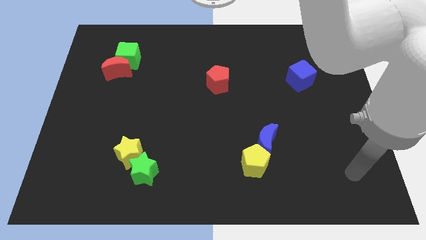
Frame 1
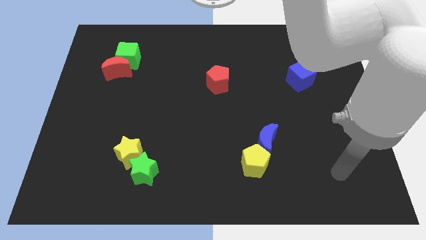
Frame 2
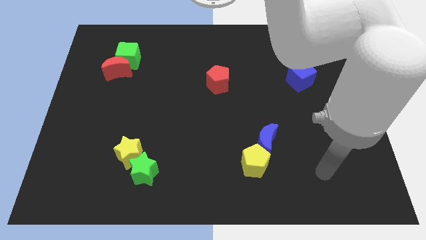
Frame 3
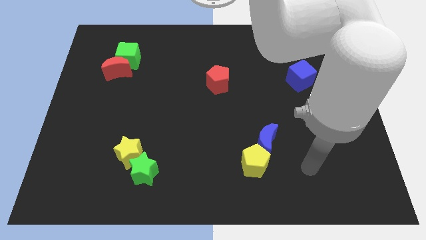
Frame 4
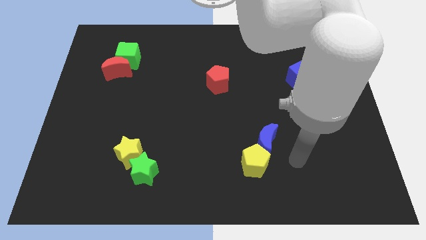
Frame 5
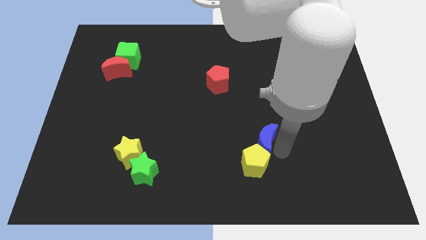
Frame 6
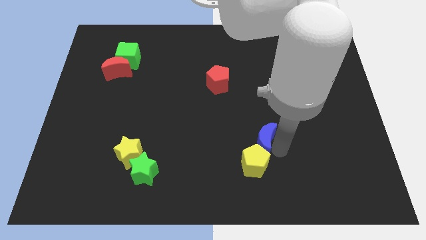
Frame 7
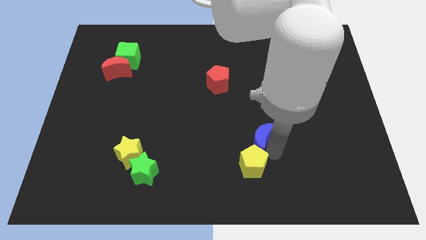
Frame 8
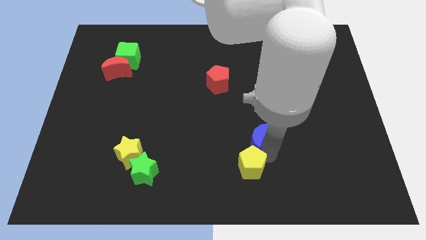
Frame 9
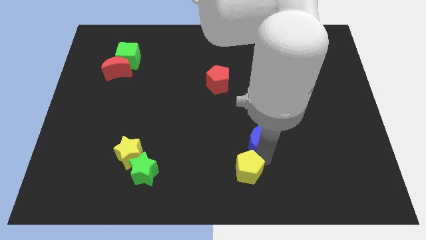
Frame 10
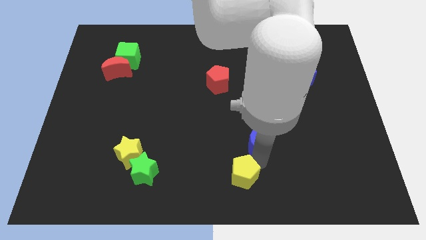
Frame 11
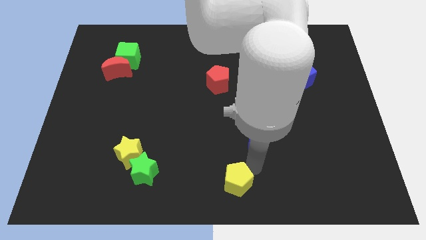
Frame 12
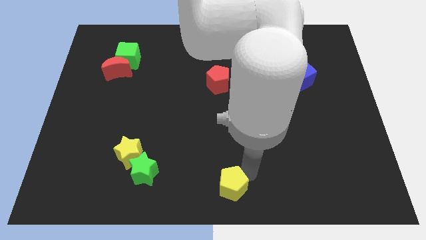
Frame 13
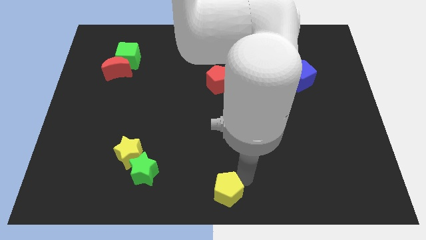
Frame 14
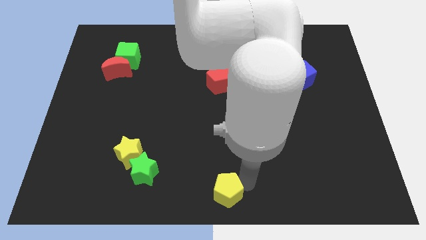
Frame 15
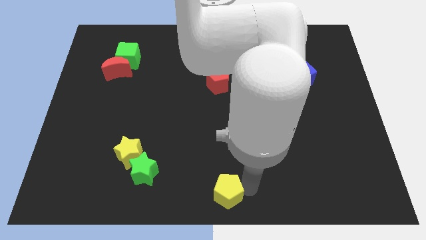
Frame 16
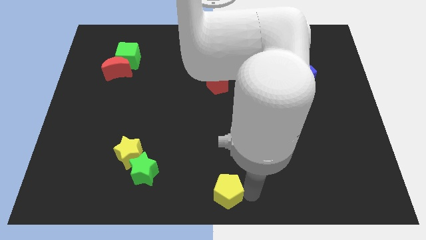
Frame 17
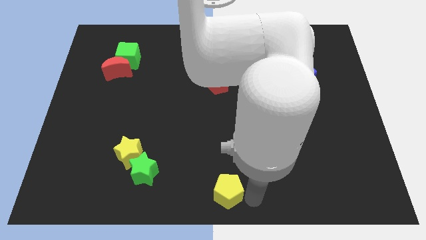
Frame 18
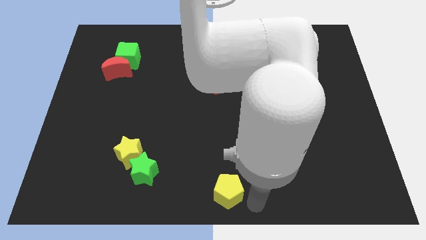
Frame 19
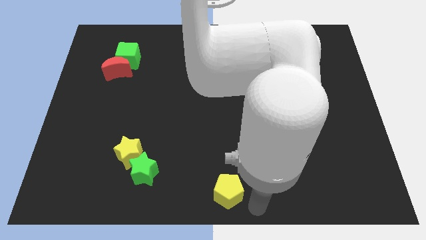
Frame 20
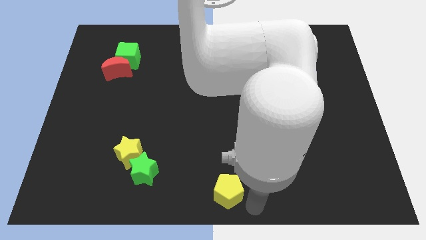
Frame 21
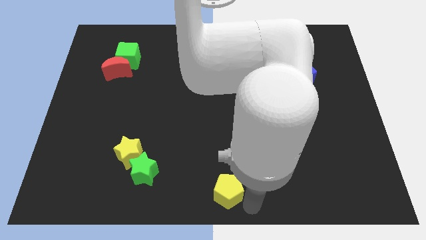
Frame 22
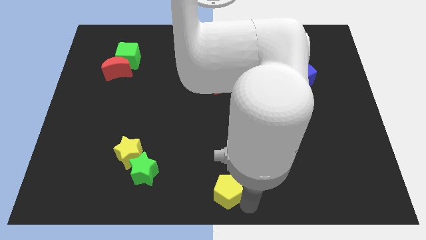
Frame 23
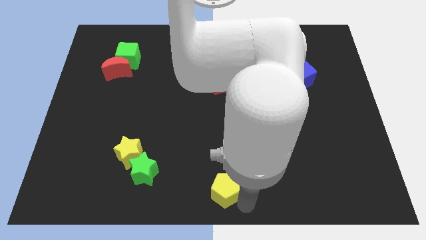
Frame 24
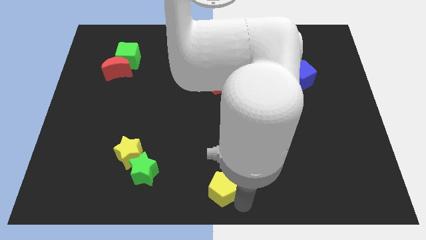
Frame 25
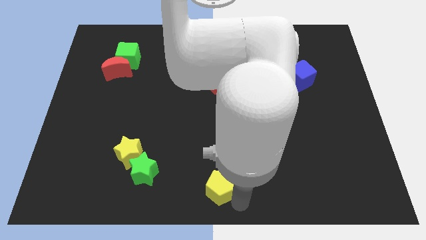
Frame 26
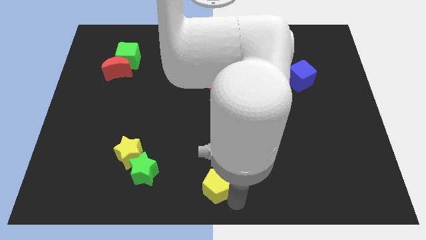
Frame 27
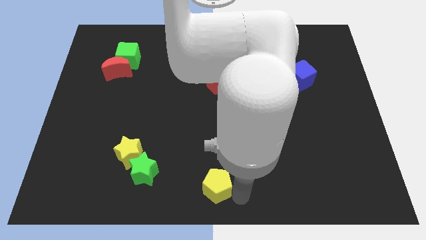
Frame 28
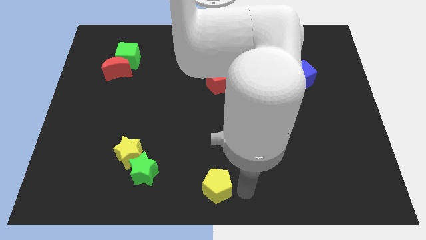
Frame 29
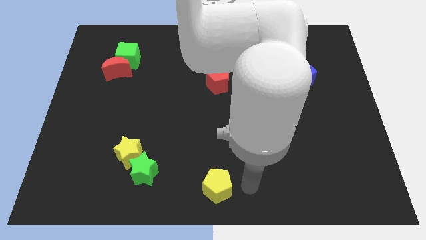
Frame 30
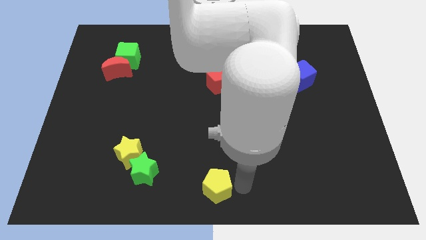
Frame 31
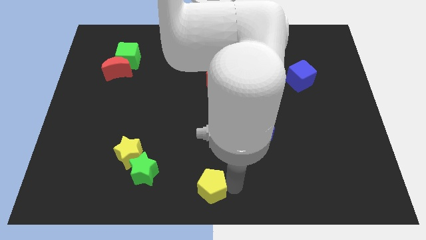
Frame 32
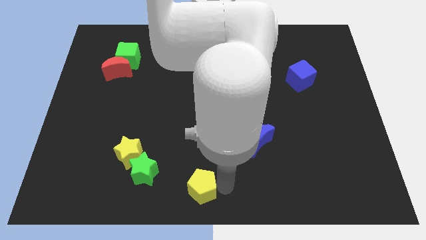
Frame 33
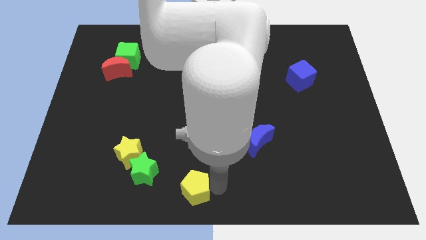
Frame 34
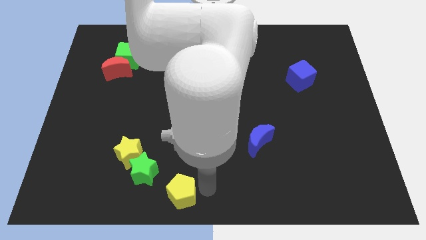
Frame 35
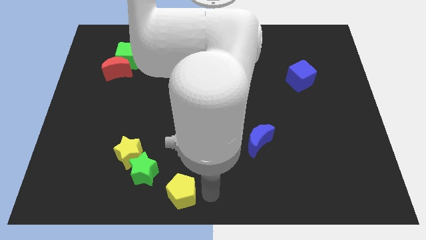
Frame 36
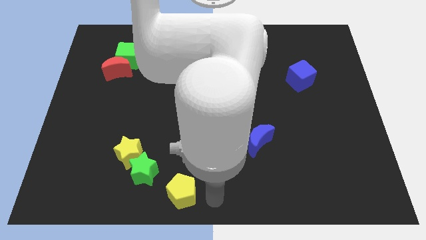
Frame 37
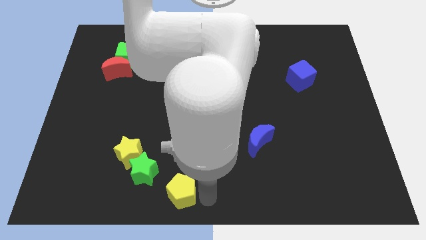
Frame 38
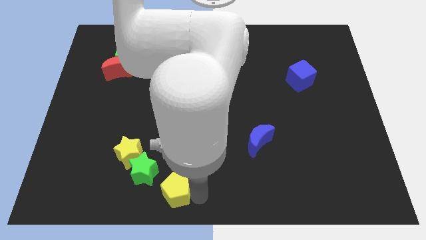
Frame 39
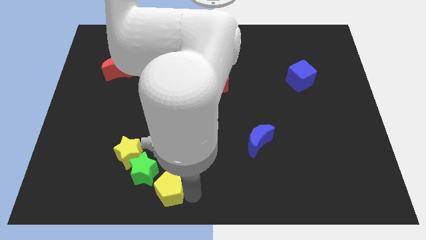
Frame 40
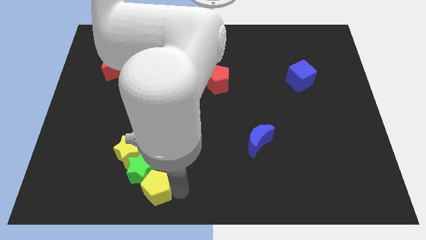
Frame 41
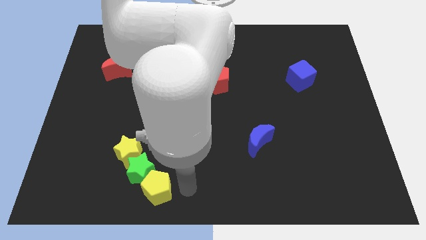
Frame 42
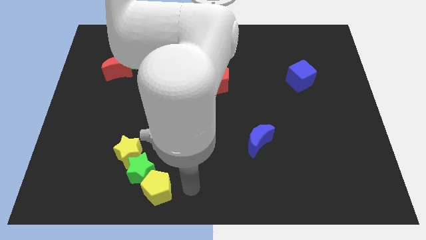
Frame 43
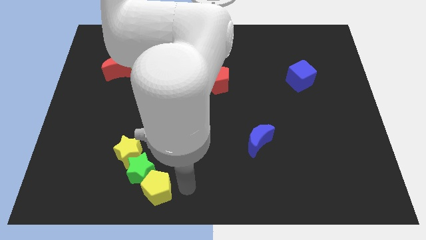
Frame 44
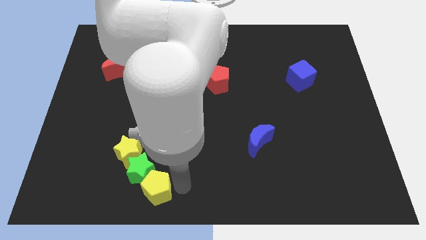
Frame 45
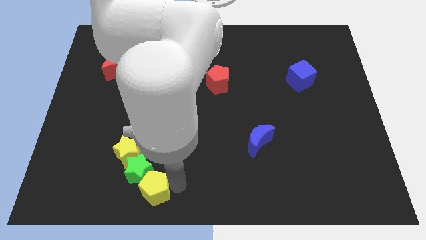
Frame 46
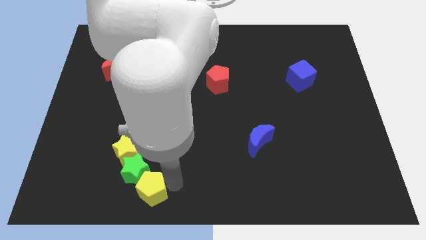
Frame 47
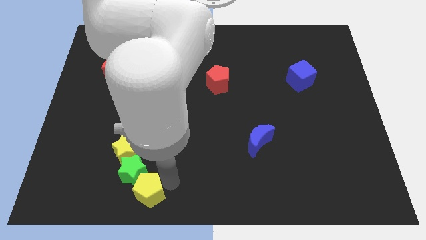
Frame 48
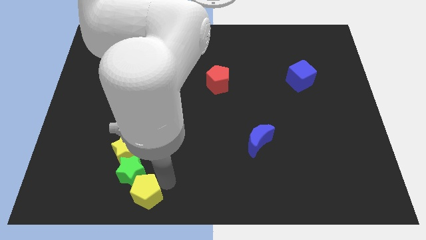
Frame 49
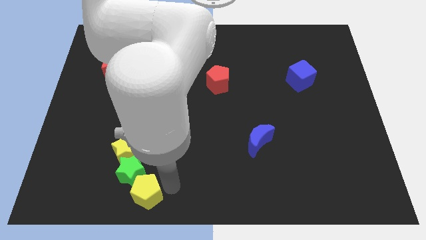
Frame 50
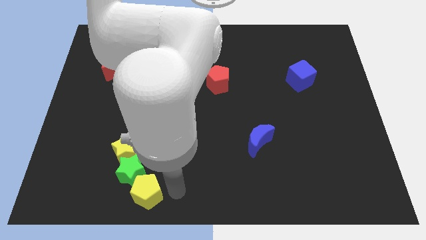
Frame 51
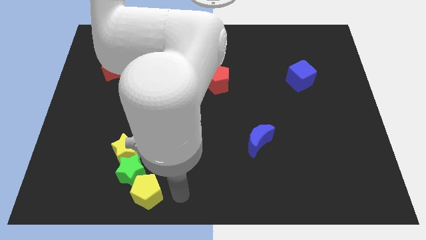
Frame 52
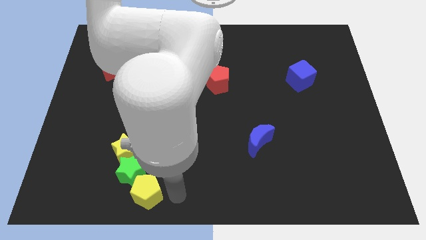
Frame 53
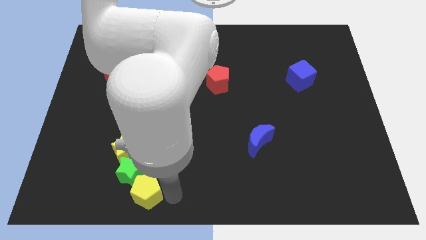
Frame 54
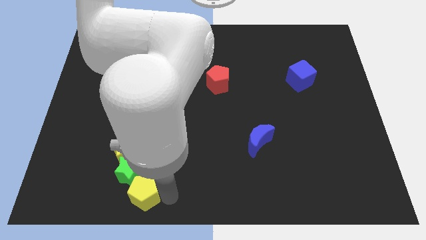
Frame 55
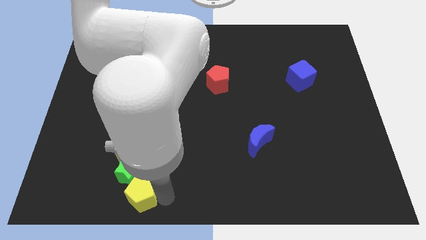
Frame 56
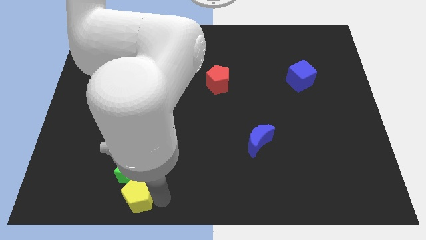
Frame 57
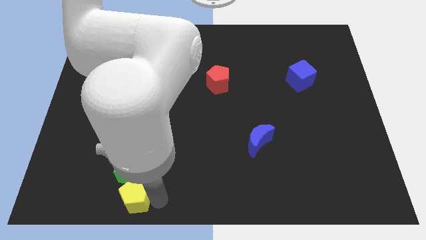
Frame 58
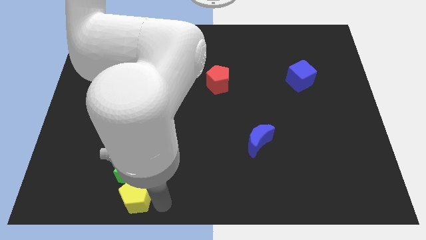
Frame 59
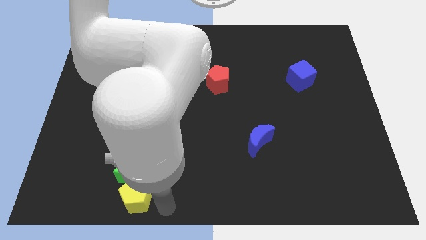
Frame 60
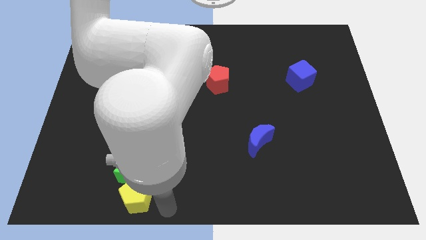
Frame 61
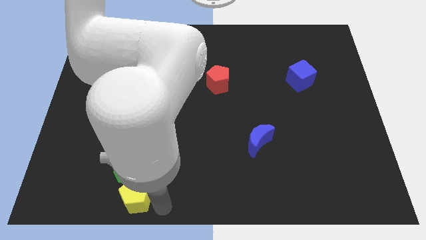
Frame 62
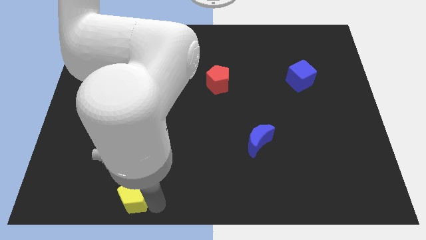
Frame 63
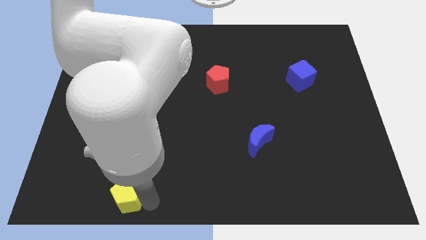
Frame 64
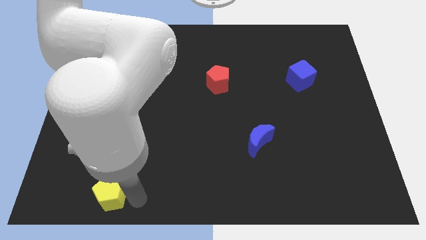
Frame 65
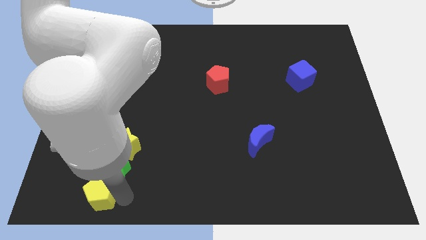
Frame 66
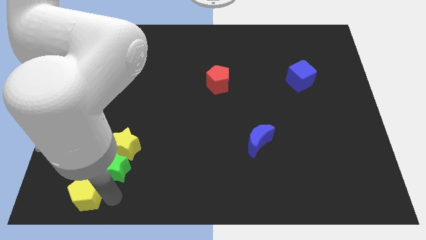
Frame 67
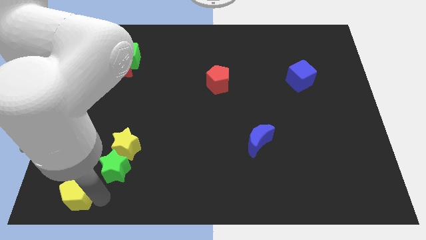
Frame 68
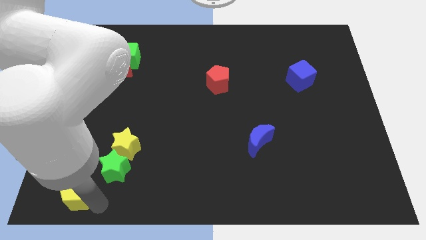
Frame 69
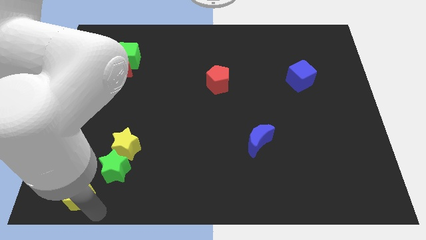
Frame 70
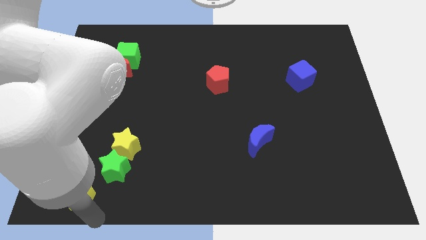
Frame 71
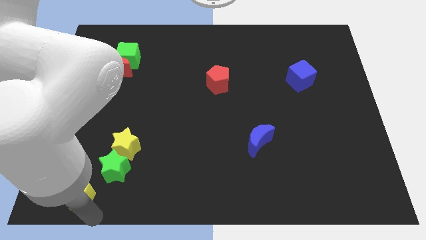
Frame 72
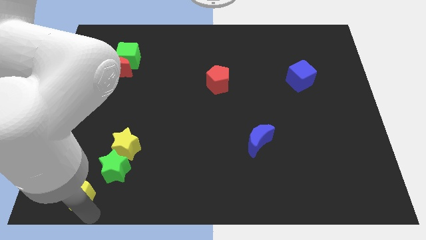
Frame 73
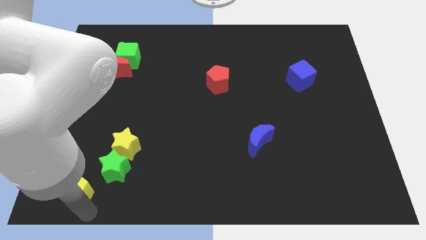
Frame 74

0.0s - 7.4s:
put the yellow pentagon left of the green star
